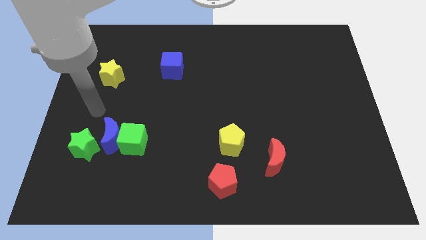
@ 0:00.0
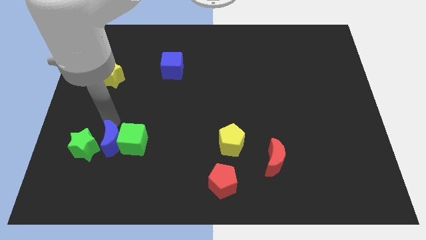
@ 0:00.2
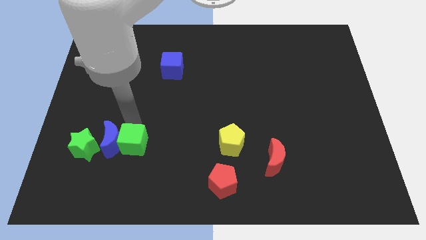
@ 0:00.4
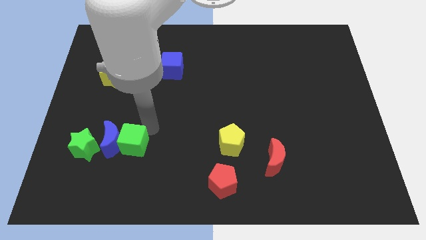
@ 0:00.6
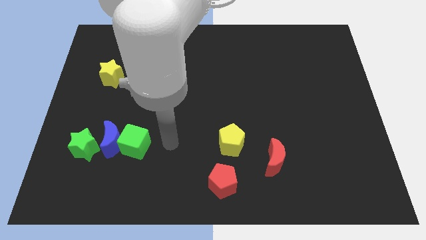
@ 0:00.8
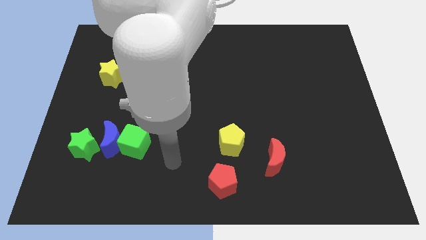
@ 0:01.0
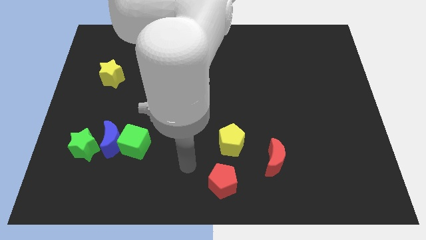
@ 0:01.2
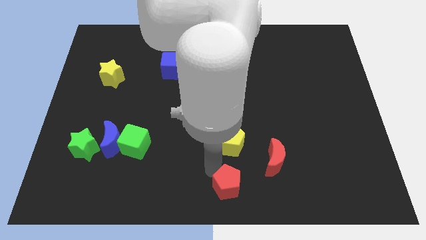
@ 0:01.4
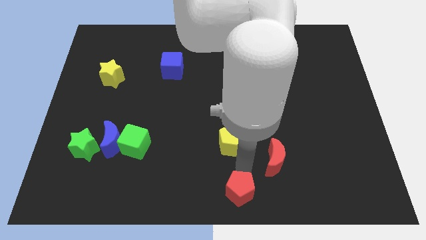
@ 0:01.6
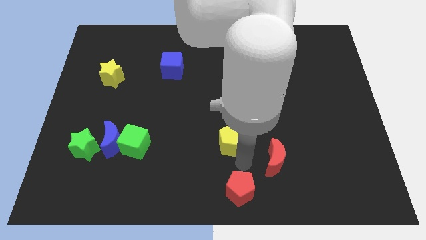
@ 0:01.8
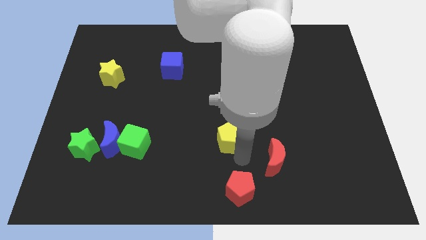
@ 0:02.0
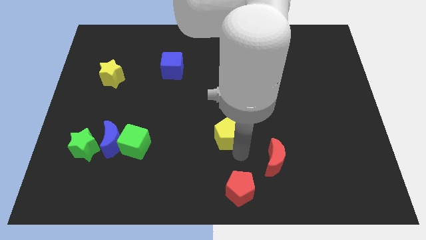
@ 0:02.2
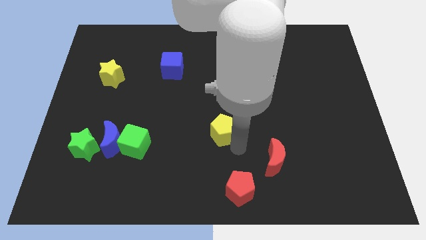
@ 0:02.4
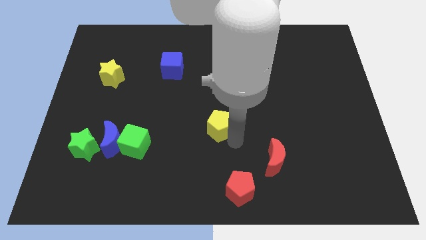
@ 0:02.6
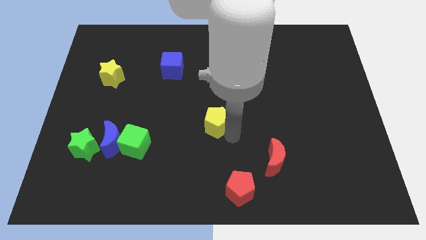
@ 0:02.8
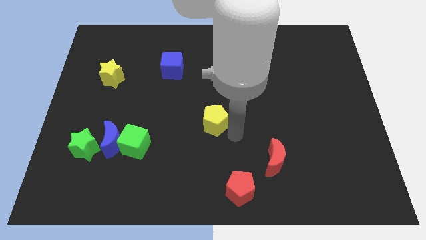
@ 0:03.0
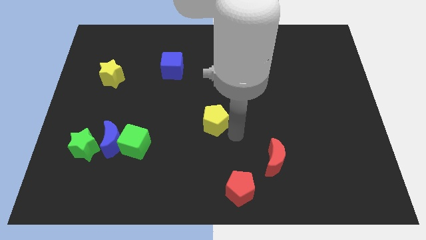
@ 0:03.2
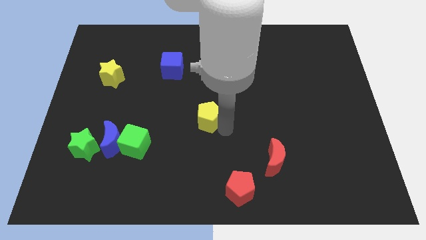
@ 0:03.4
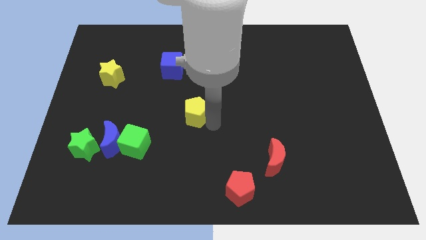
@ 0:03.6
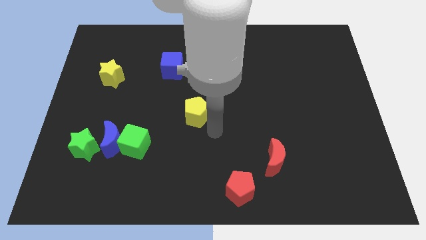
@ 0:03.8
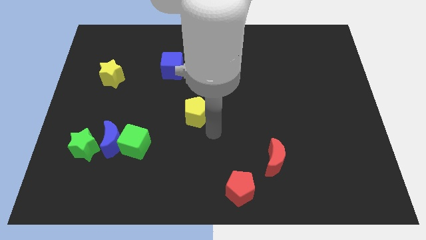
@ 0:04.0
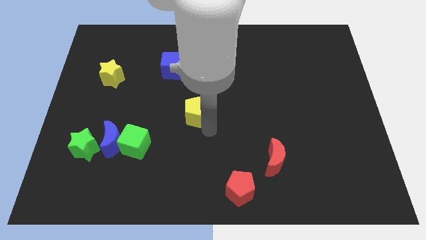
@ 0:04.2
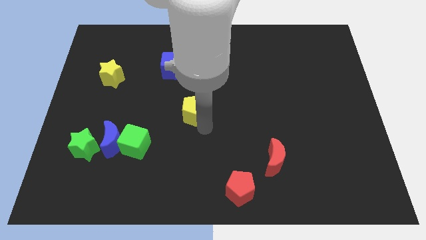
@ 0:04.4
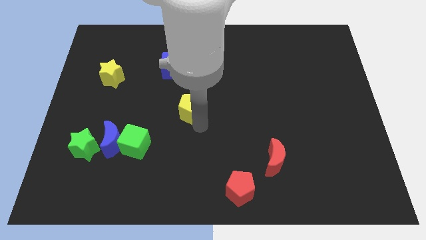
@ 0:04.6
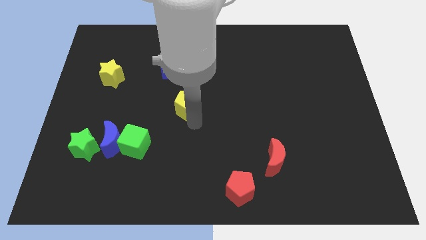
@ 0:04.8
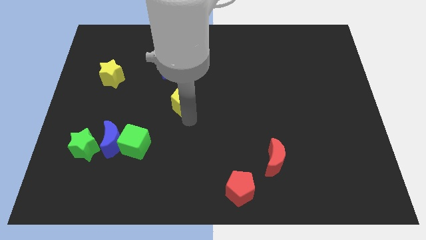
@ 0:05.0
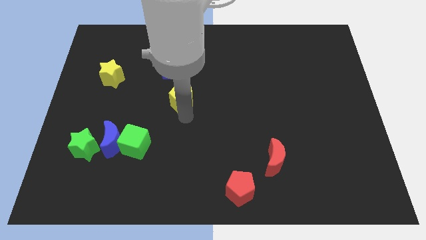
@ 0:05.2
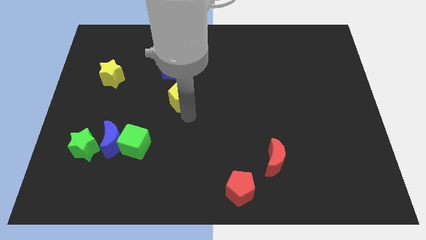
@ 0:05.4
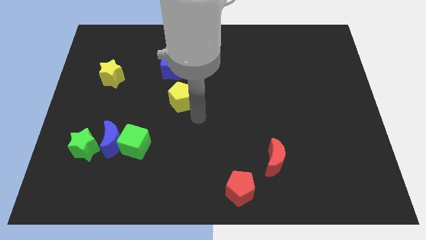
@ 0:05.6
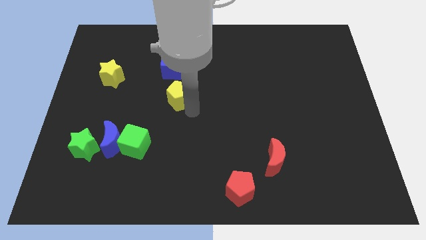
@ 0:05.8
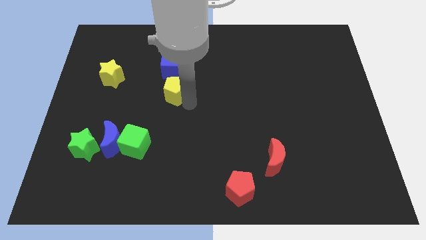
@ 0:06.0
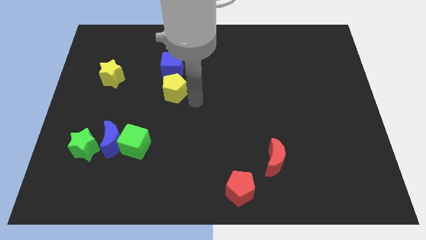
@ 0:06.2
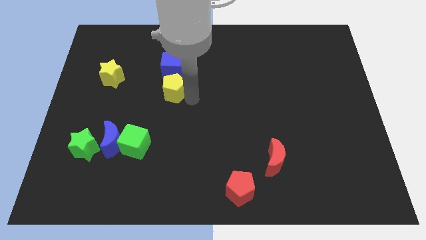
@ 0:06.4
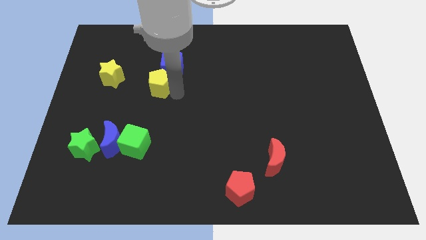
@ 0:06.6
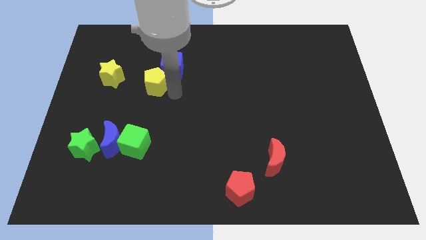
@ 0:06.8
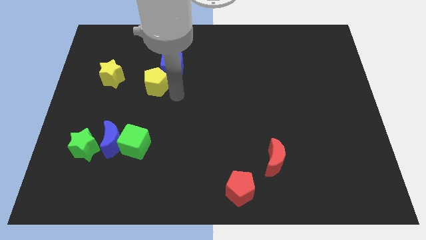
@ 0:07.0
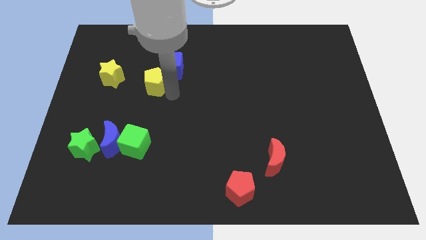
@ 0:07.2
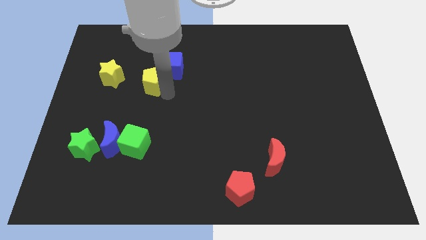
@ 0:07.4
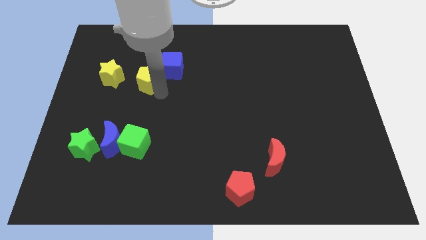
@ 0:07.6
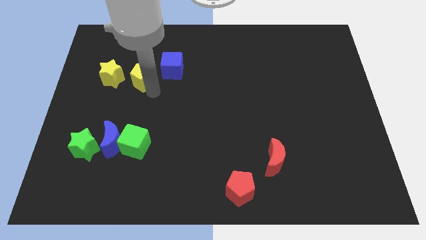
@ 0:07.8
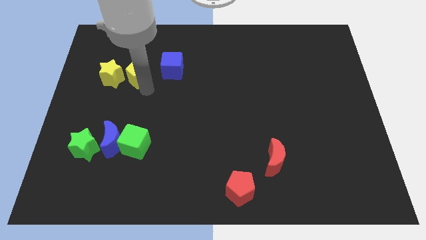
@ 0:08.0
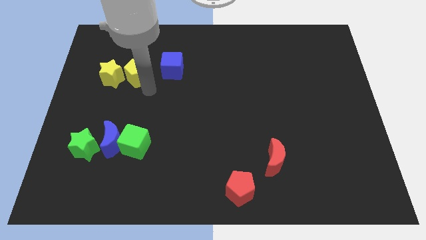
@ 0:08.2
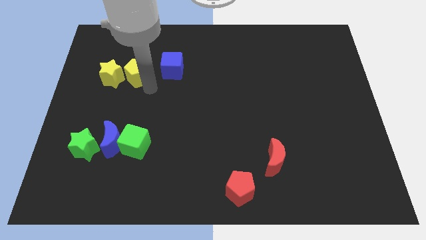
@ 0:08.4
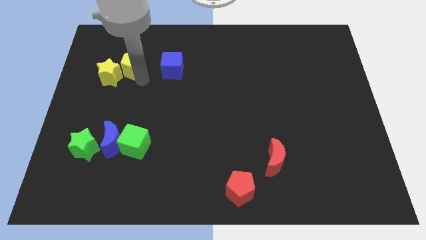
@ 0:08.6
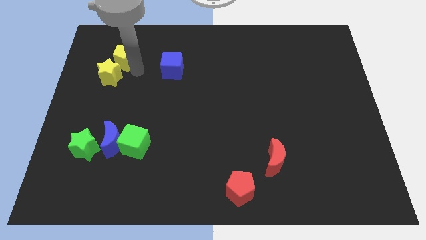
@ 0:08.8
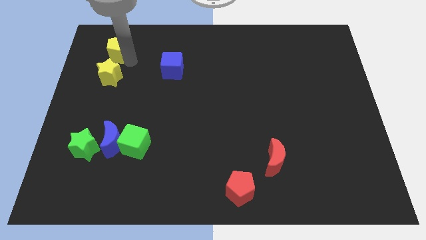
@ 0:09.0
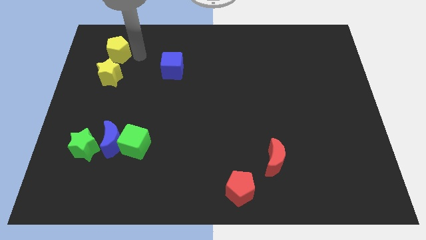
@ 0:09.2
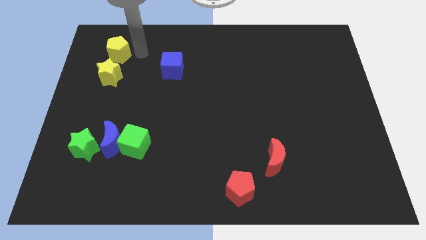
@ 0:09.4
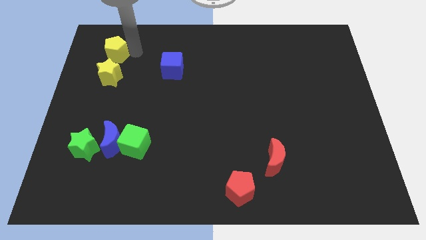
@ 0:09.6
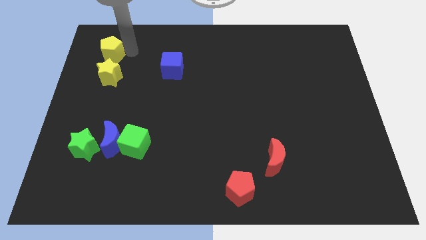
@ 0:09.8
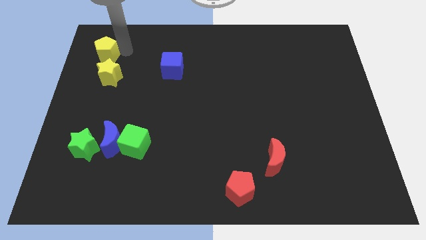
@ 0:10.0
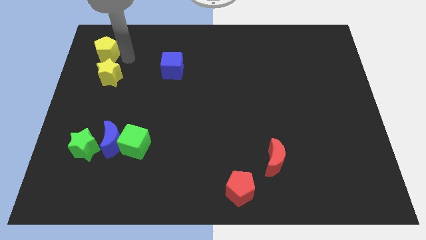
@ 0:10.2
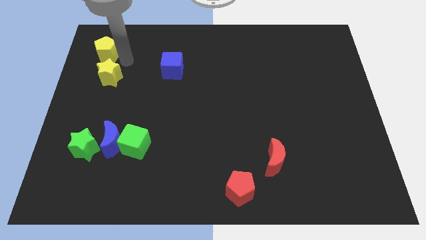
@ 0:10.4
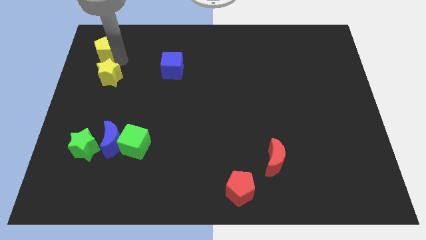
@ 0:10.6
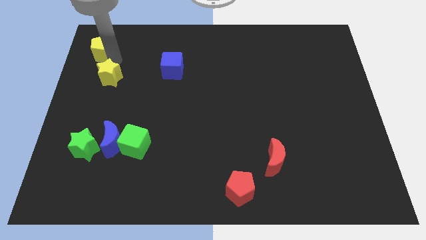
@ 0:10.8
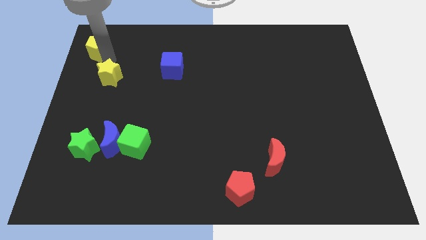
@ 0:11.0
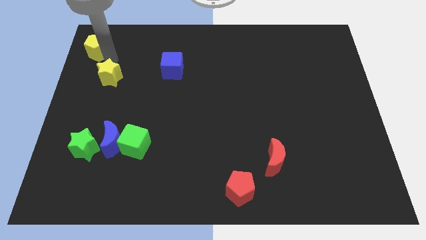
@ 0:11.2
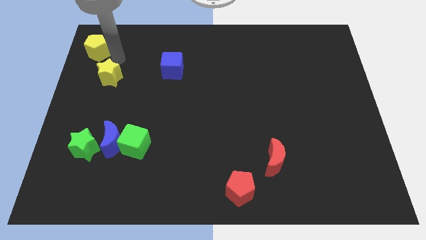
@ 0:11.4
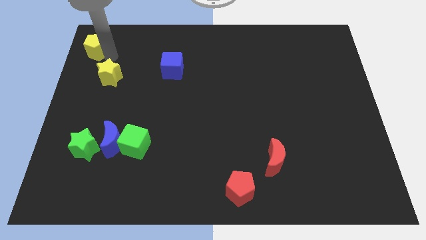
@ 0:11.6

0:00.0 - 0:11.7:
slide the yellow pentagon to the upper left corner
